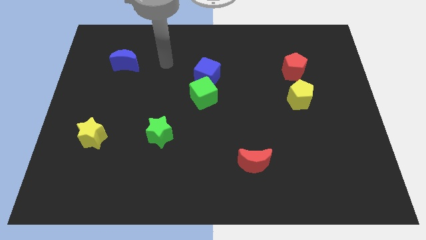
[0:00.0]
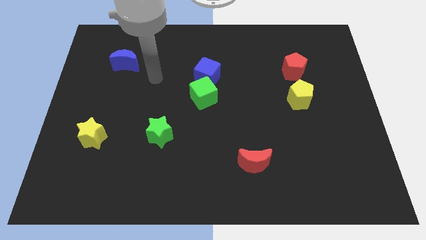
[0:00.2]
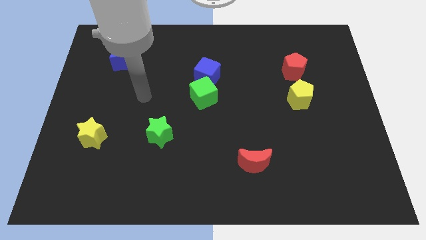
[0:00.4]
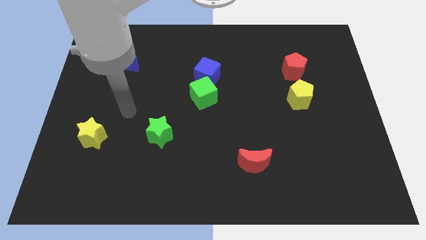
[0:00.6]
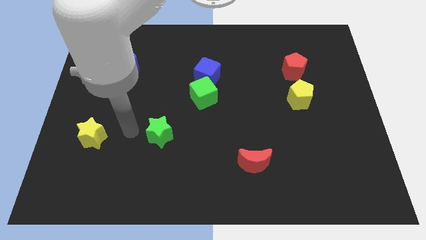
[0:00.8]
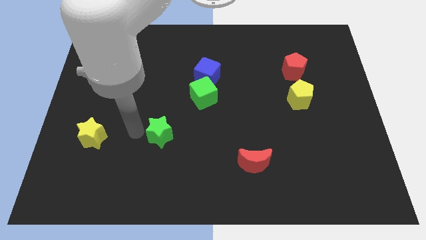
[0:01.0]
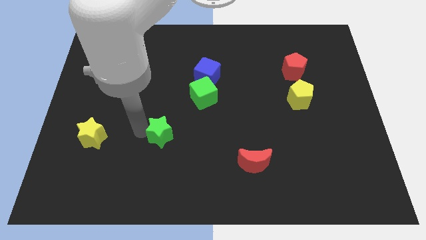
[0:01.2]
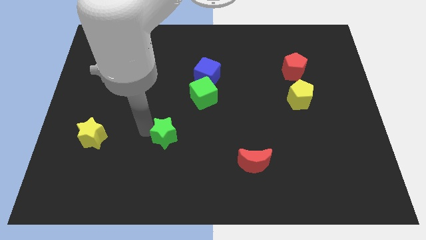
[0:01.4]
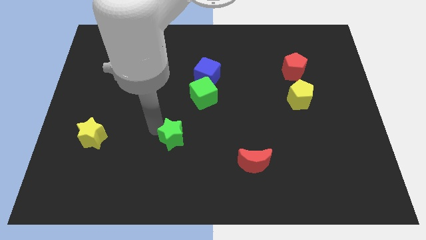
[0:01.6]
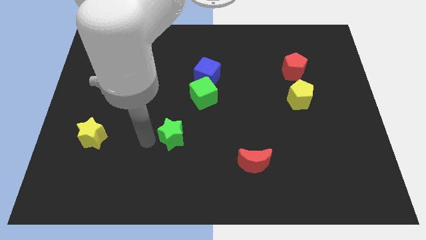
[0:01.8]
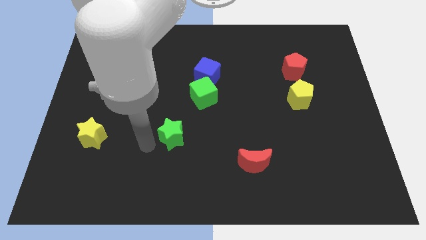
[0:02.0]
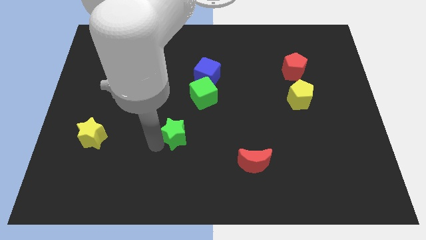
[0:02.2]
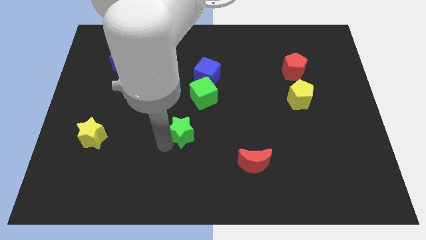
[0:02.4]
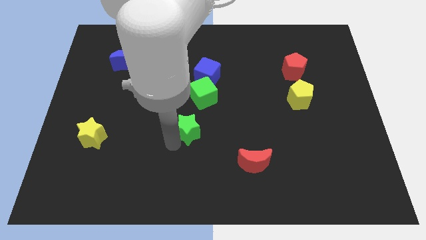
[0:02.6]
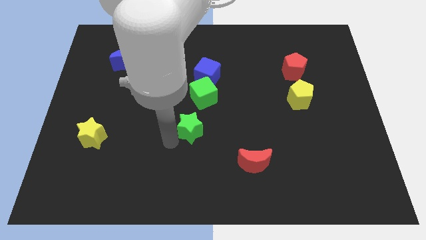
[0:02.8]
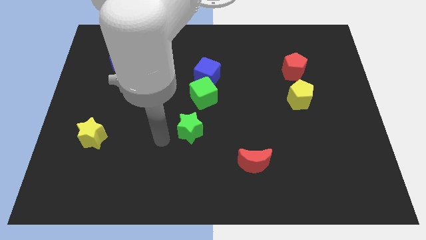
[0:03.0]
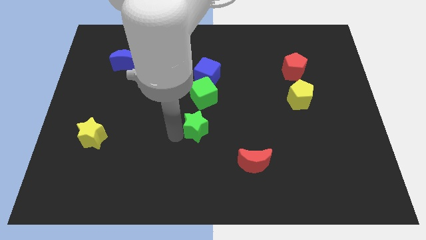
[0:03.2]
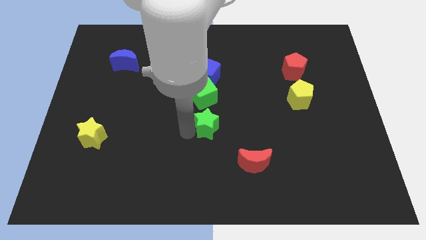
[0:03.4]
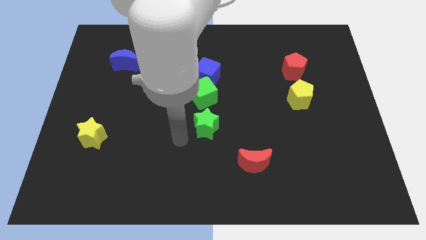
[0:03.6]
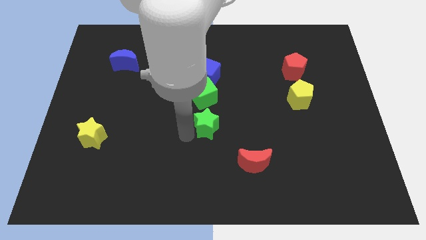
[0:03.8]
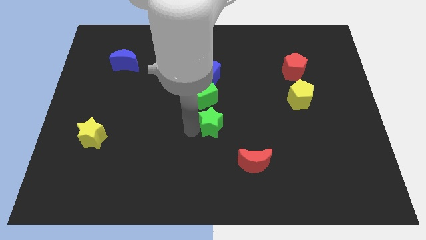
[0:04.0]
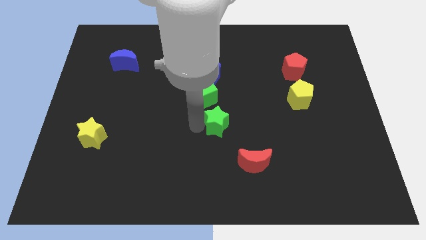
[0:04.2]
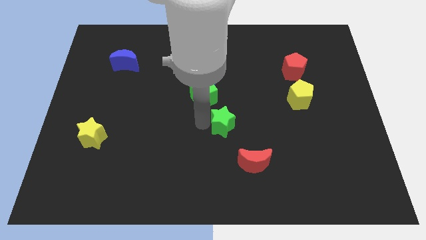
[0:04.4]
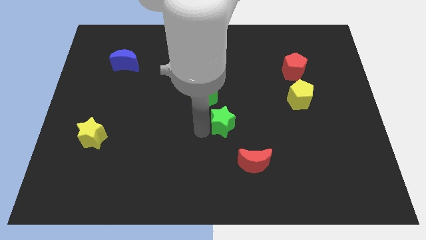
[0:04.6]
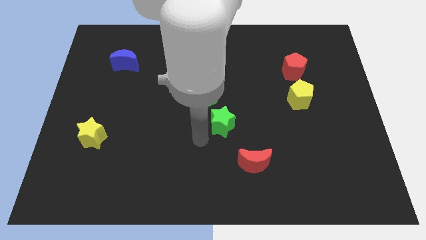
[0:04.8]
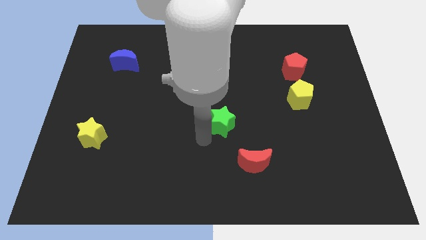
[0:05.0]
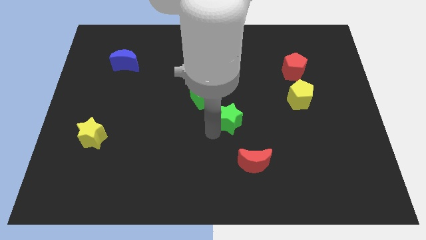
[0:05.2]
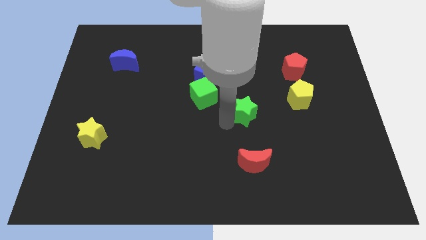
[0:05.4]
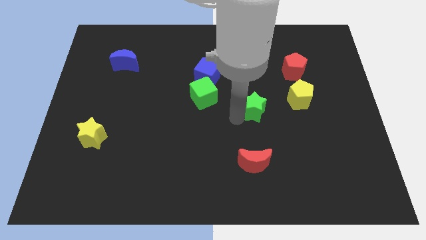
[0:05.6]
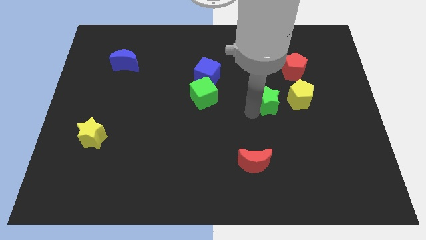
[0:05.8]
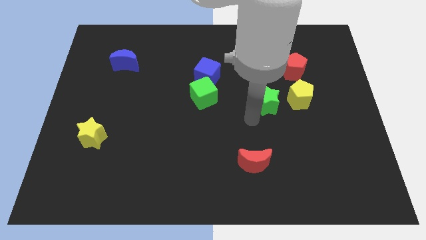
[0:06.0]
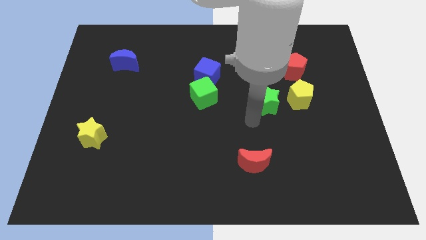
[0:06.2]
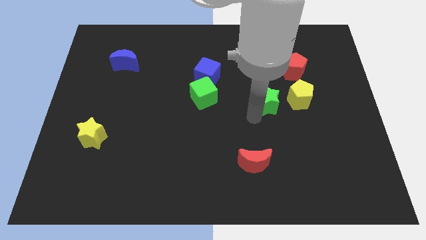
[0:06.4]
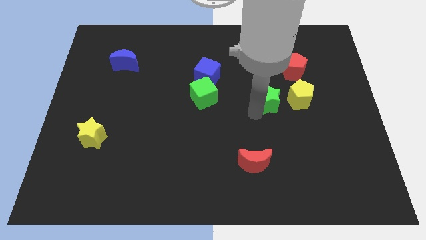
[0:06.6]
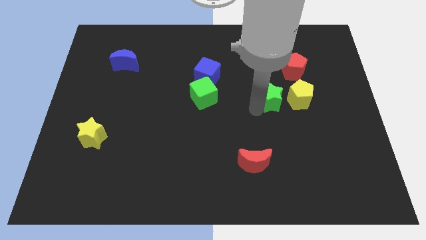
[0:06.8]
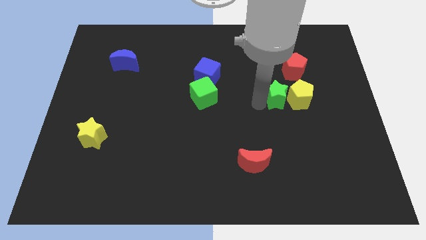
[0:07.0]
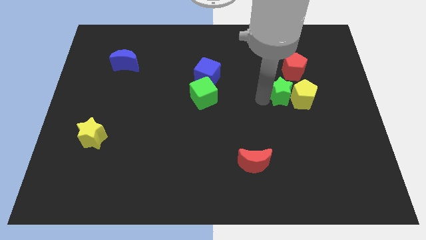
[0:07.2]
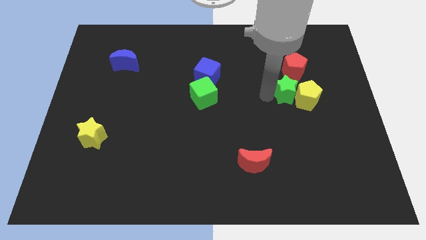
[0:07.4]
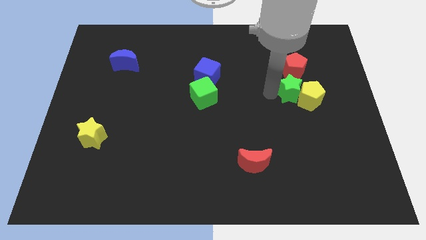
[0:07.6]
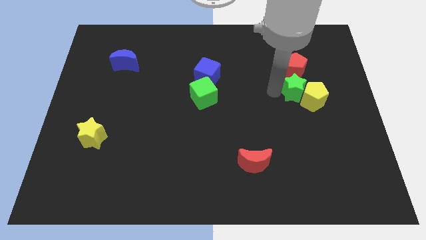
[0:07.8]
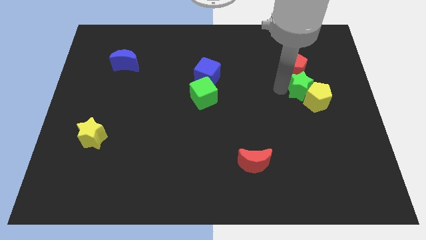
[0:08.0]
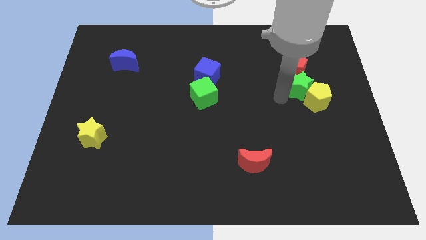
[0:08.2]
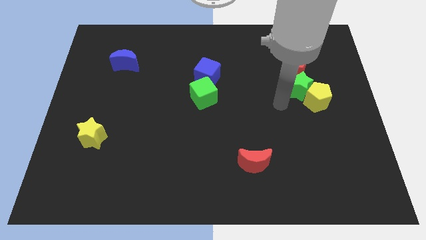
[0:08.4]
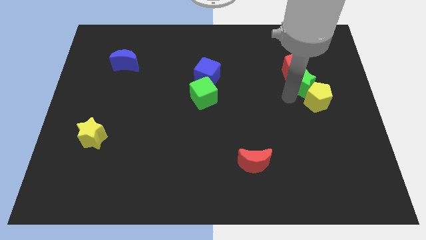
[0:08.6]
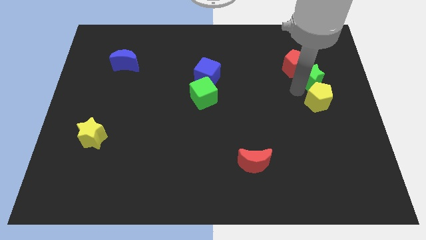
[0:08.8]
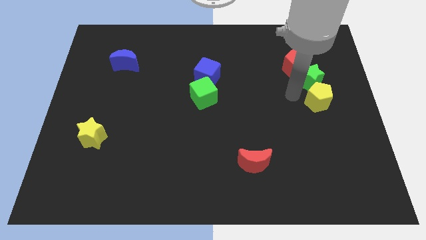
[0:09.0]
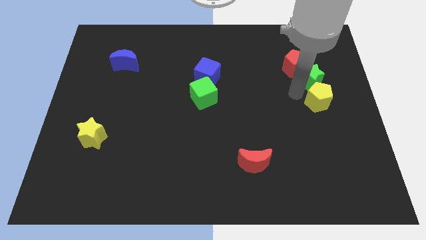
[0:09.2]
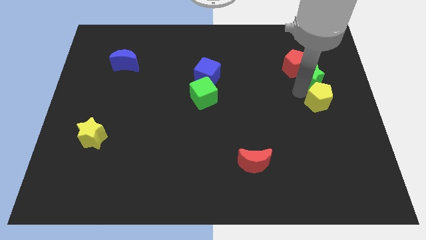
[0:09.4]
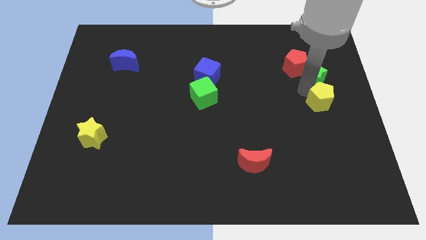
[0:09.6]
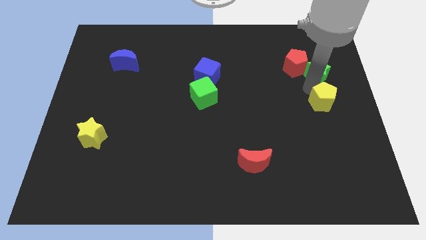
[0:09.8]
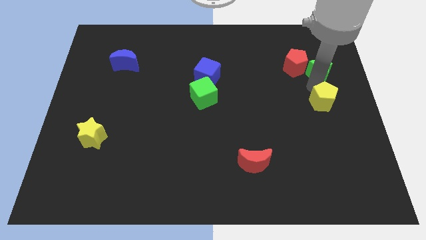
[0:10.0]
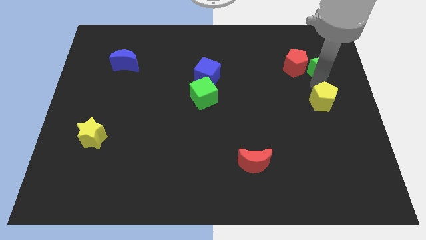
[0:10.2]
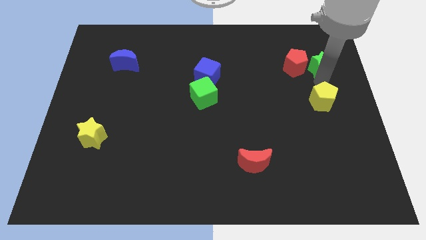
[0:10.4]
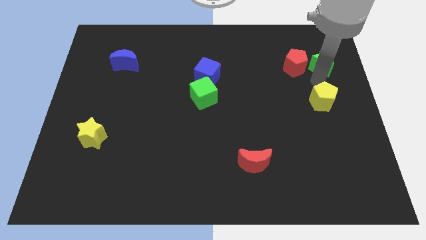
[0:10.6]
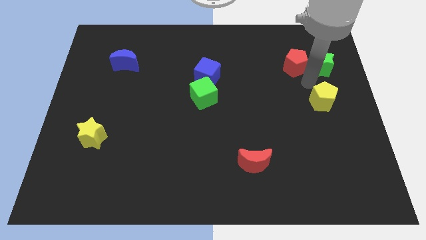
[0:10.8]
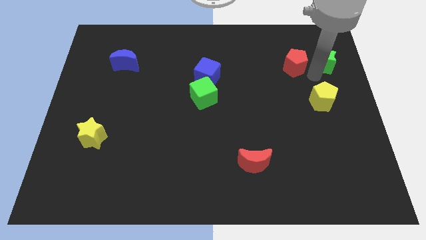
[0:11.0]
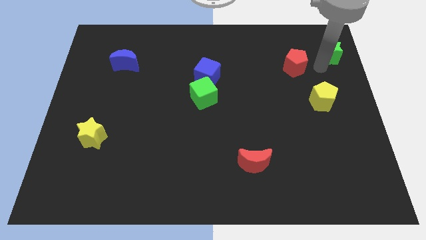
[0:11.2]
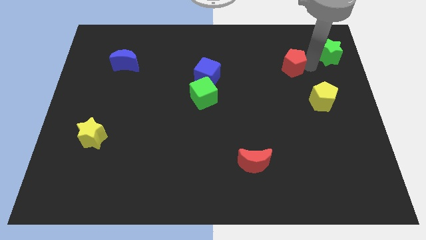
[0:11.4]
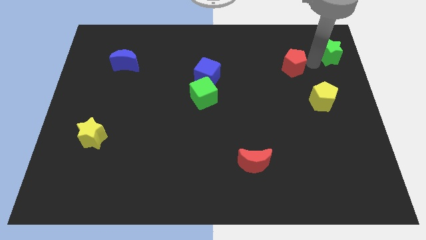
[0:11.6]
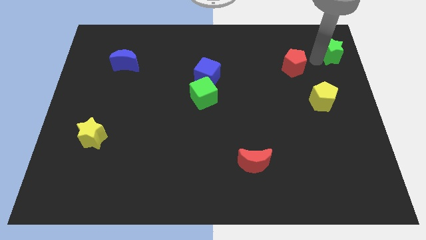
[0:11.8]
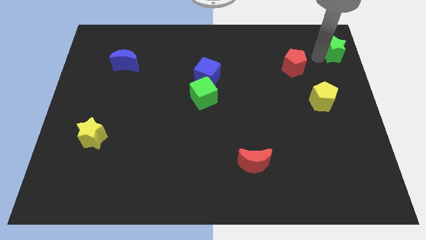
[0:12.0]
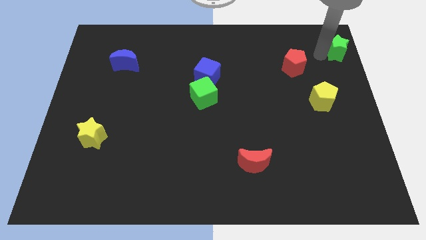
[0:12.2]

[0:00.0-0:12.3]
move the green star to the top right

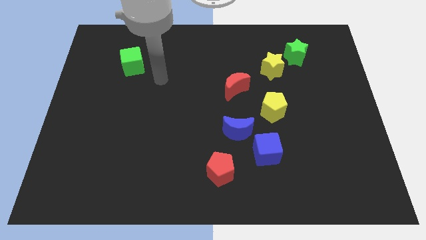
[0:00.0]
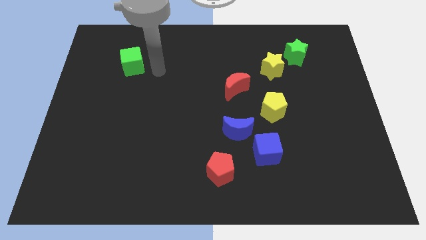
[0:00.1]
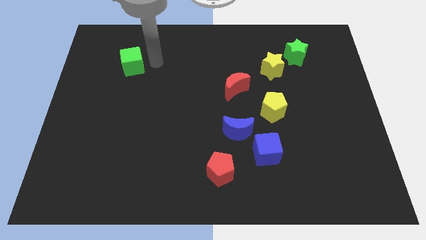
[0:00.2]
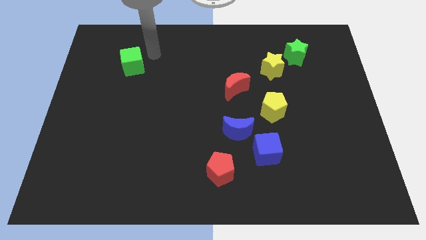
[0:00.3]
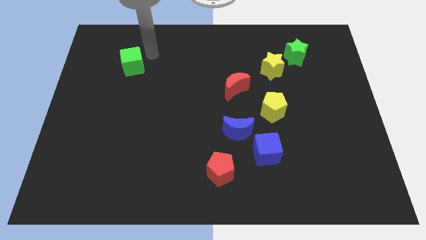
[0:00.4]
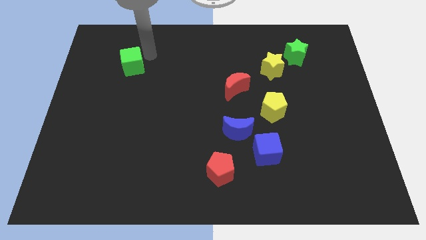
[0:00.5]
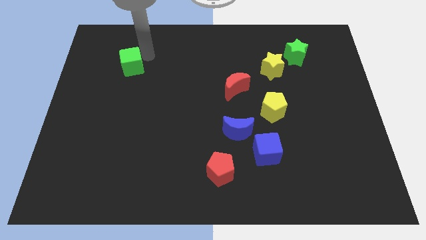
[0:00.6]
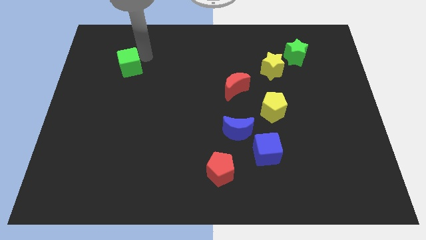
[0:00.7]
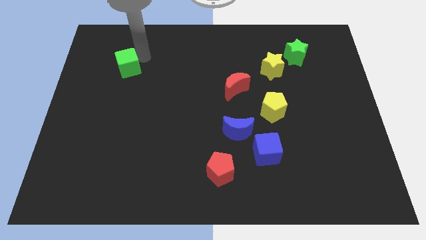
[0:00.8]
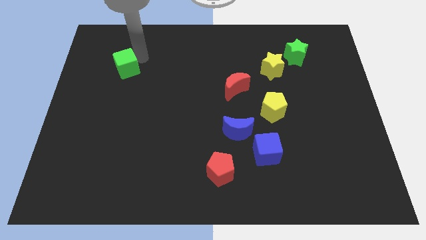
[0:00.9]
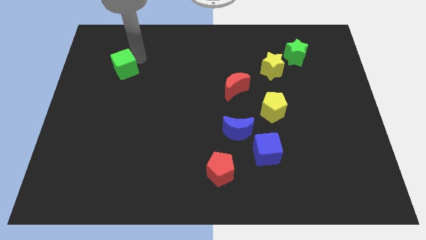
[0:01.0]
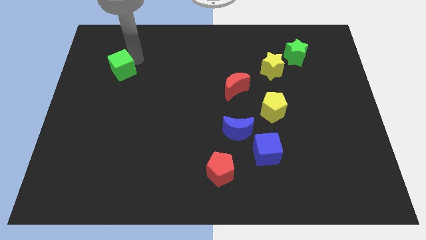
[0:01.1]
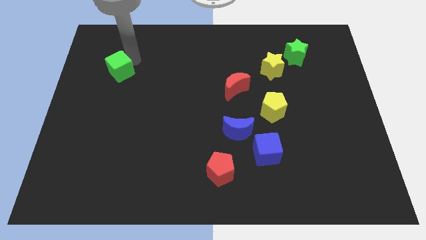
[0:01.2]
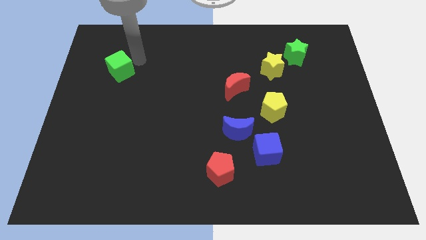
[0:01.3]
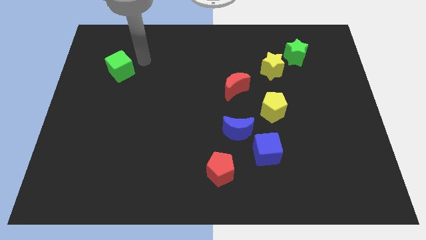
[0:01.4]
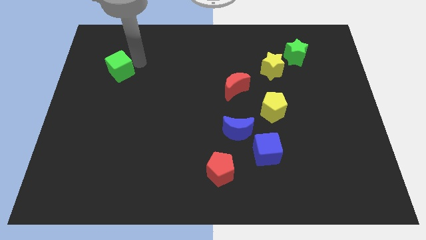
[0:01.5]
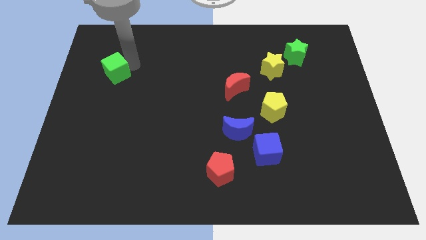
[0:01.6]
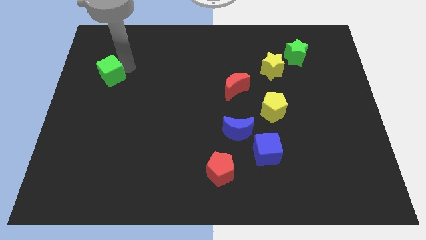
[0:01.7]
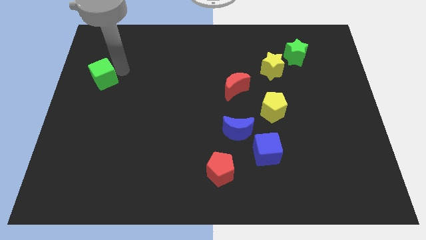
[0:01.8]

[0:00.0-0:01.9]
slide the green cube to the center left
